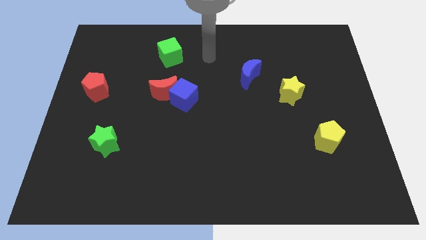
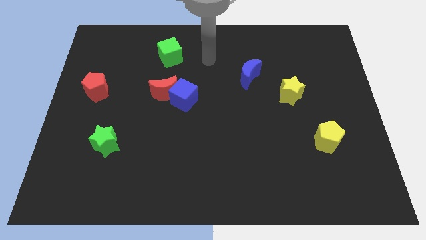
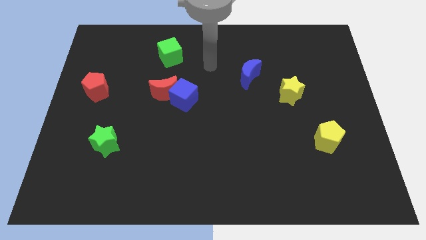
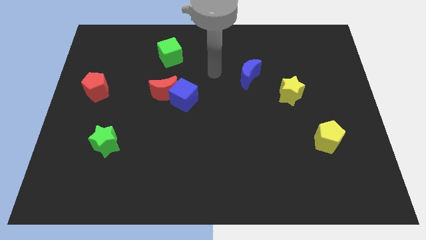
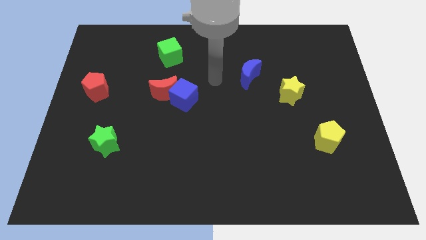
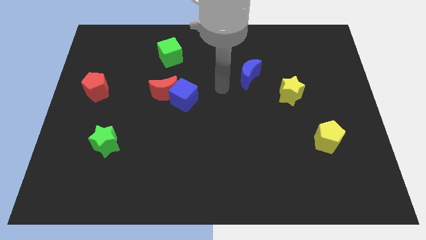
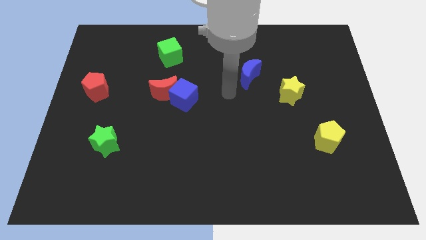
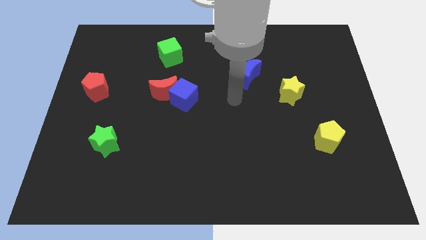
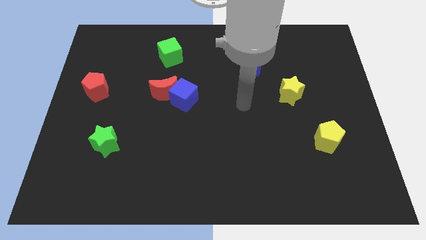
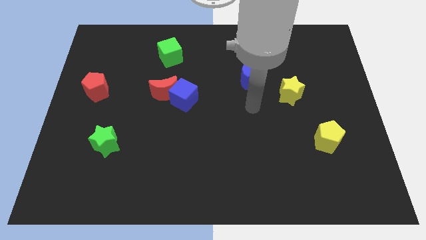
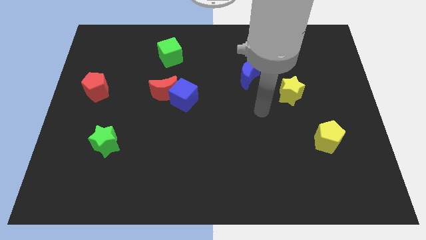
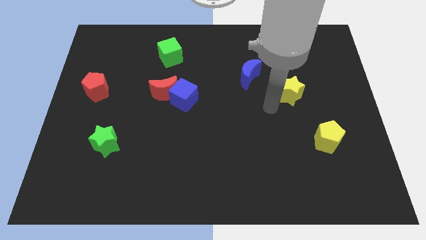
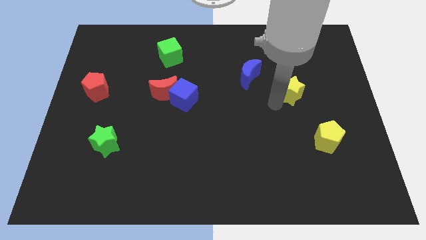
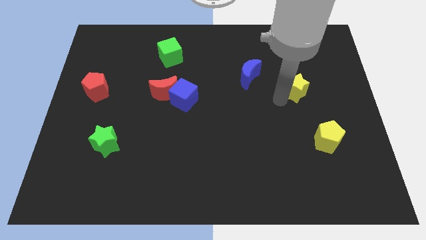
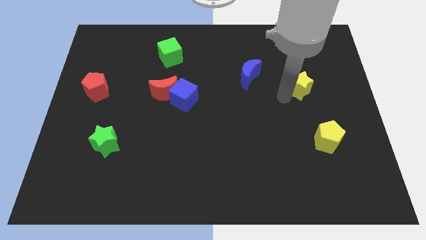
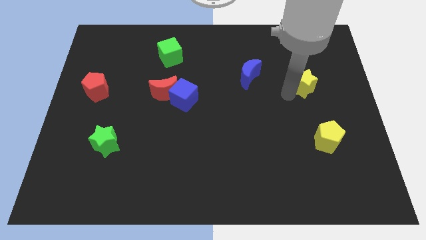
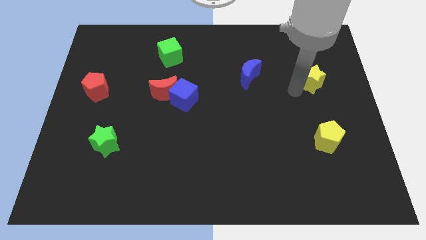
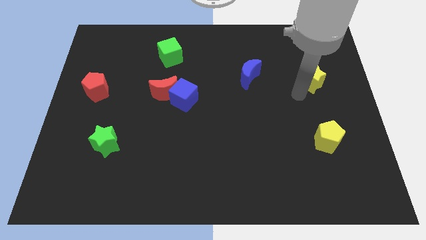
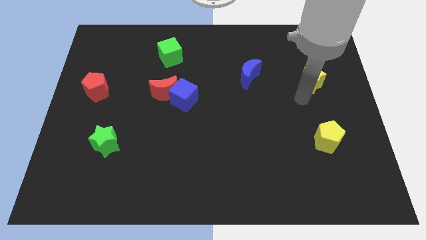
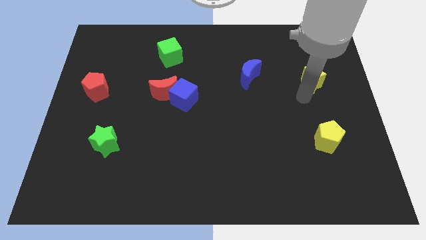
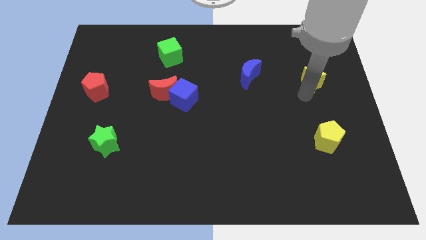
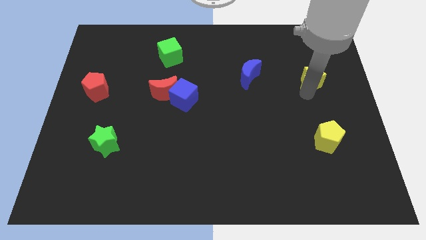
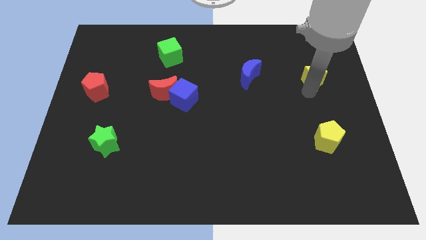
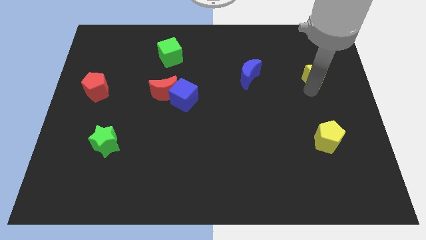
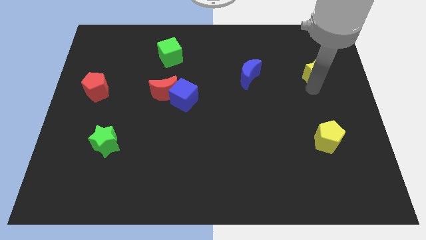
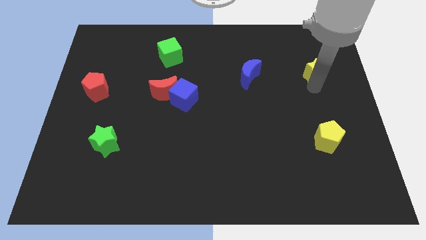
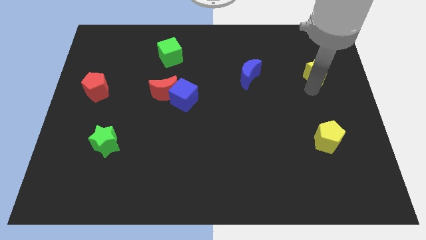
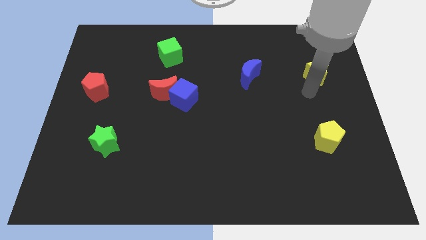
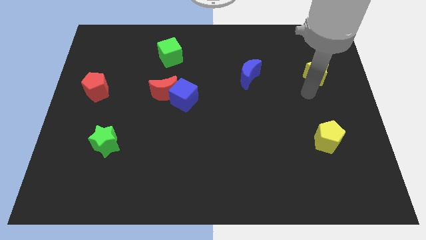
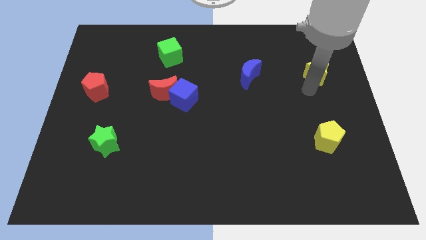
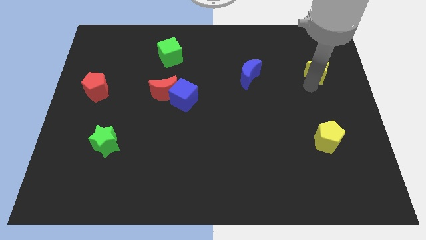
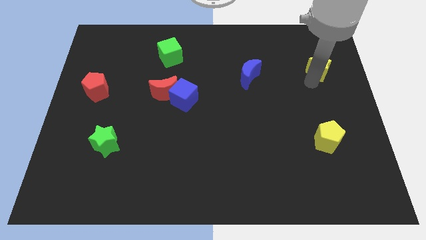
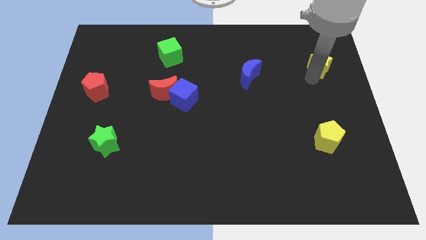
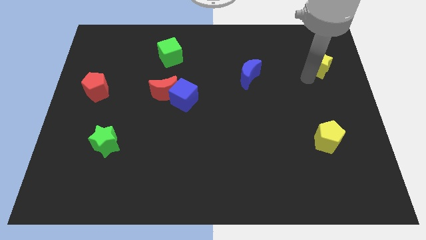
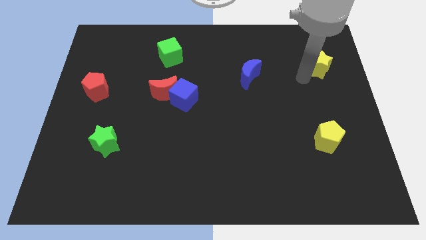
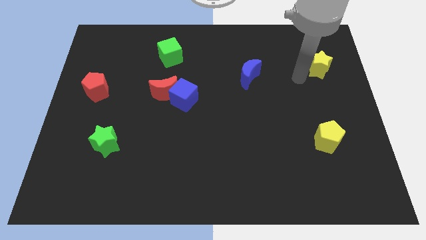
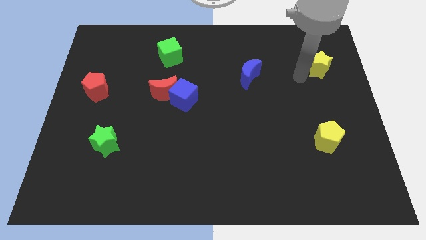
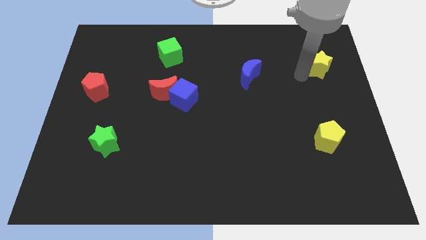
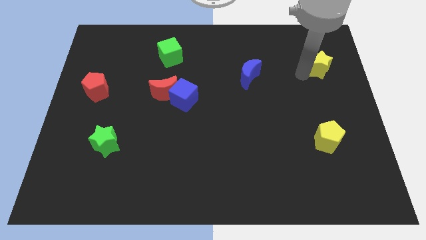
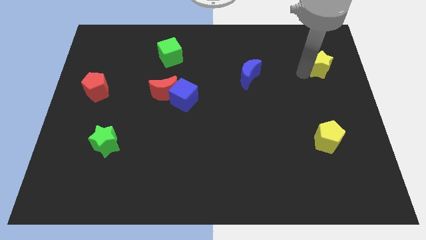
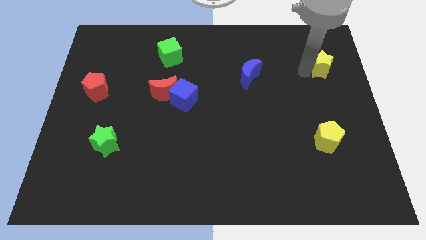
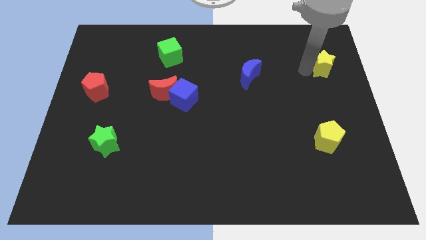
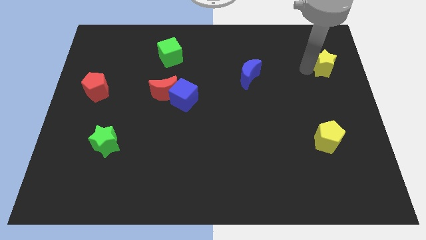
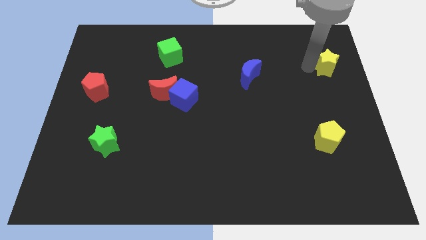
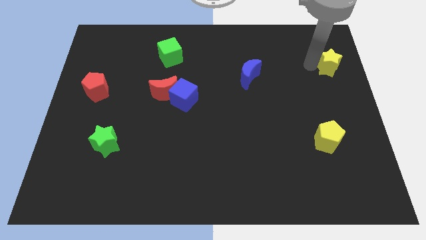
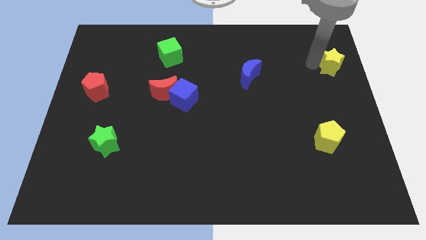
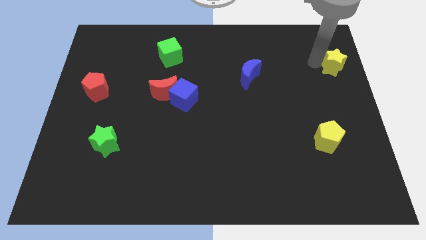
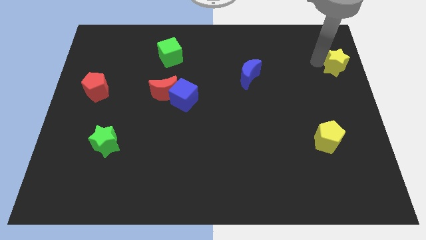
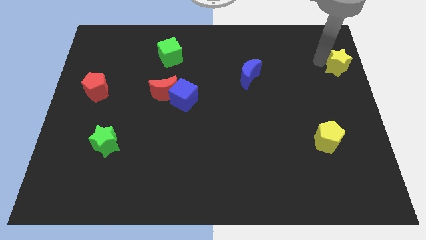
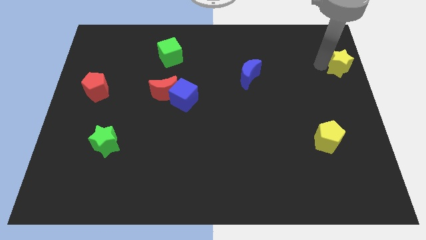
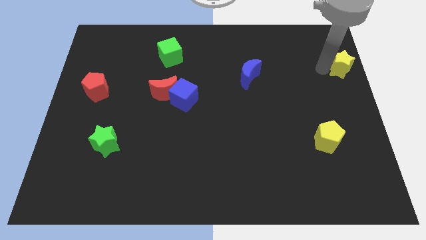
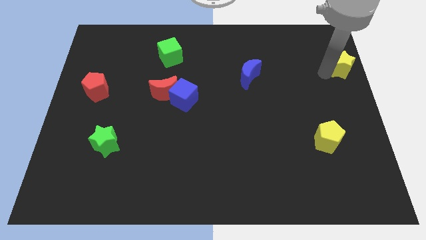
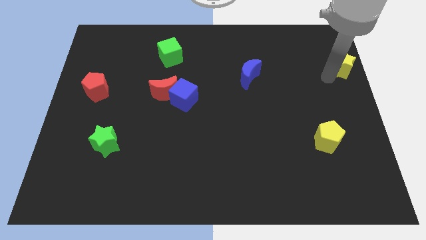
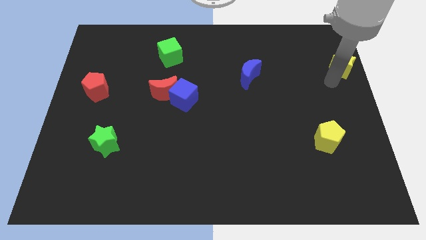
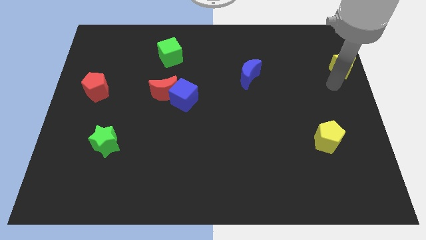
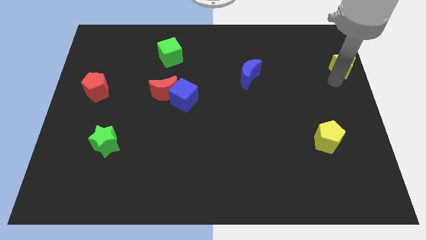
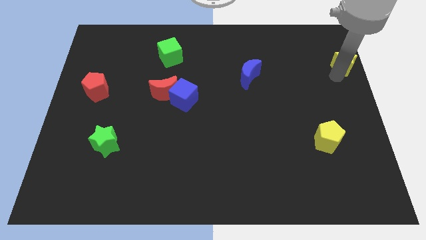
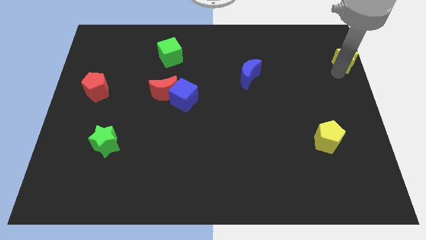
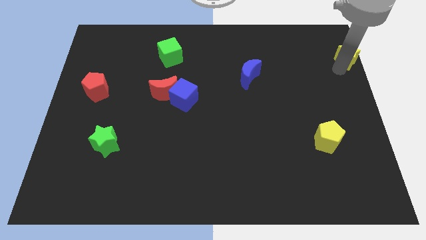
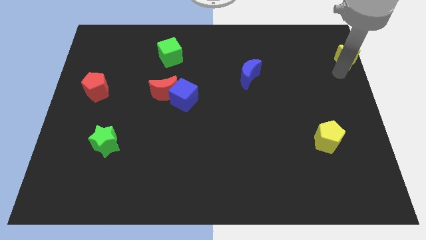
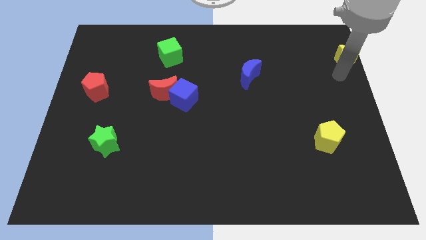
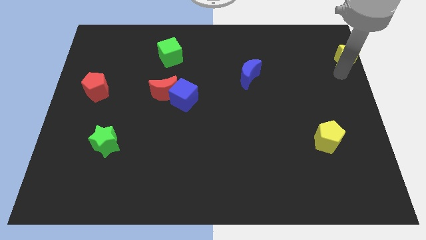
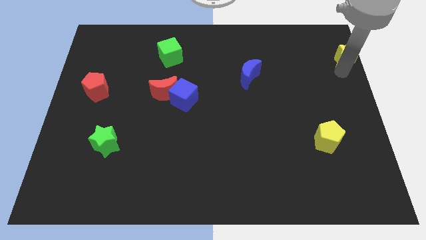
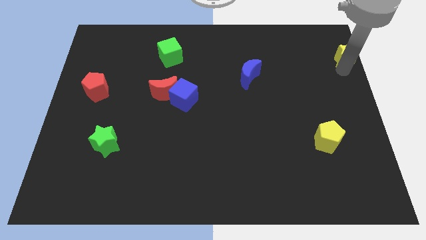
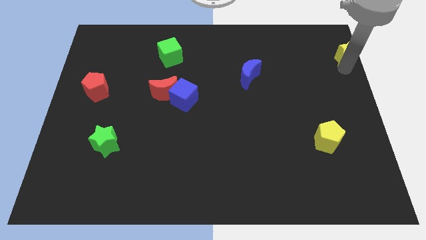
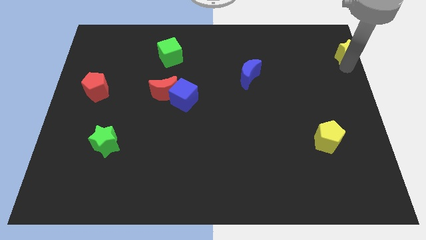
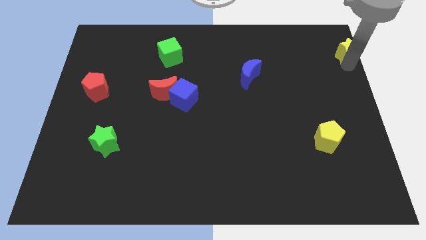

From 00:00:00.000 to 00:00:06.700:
put the yellow star to the top right
